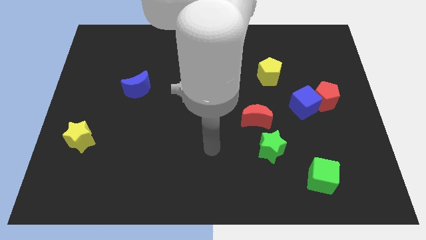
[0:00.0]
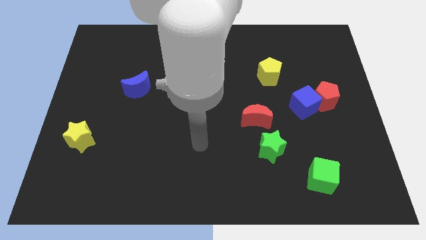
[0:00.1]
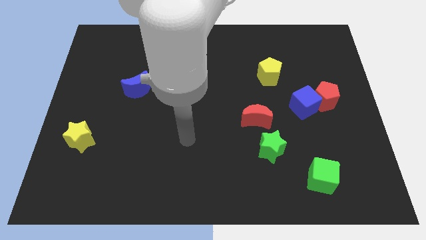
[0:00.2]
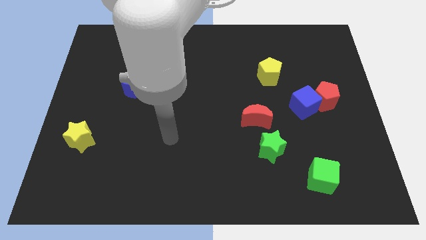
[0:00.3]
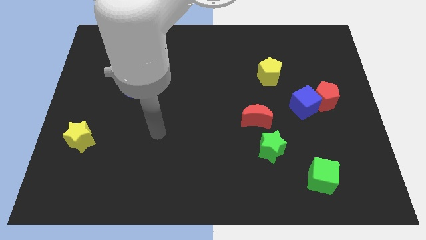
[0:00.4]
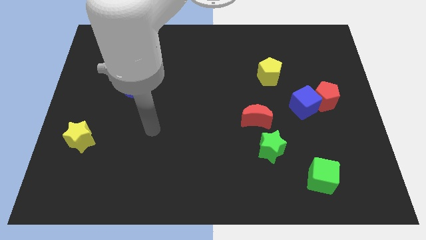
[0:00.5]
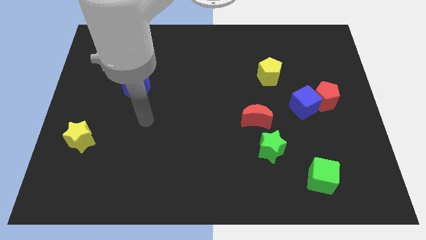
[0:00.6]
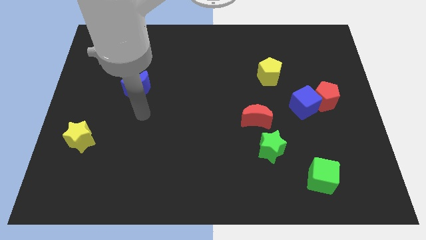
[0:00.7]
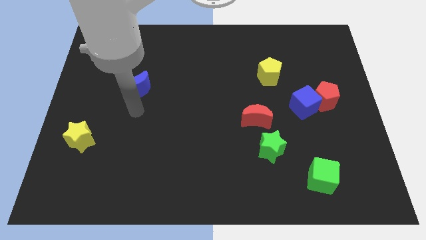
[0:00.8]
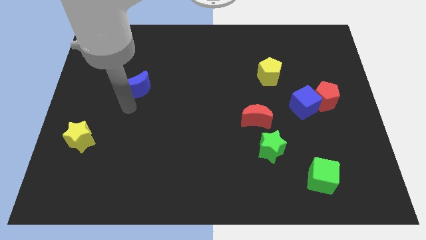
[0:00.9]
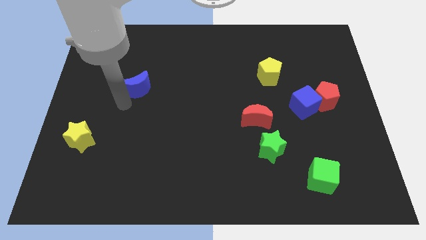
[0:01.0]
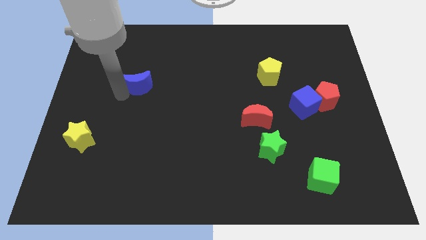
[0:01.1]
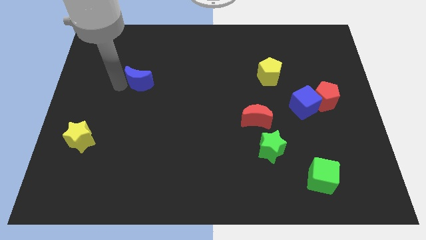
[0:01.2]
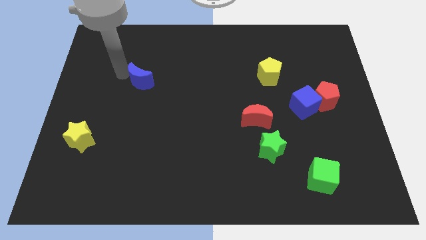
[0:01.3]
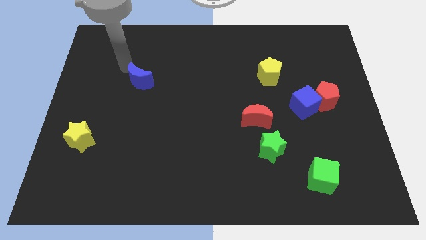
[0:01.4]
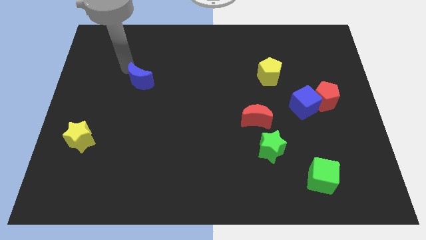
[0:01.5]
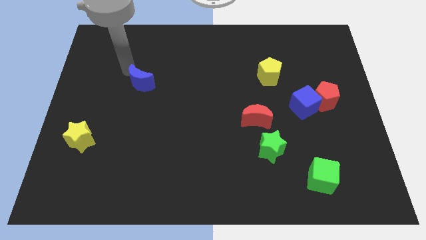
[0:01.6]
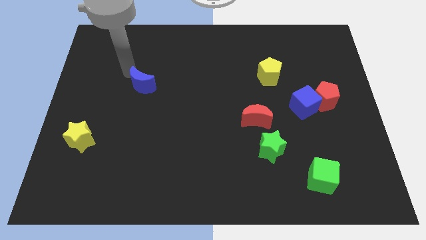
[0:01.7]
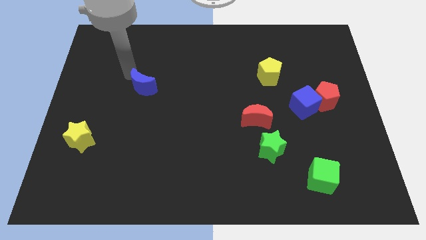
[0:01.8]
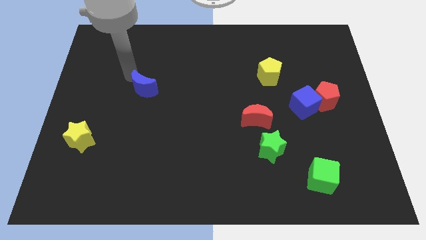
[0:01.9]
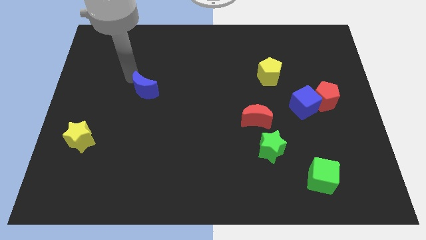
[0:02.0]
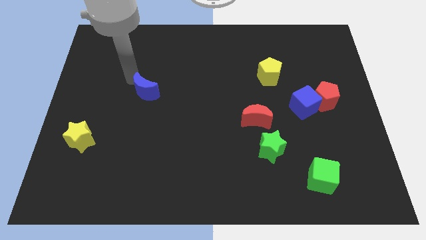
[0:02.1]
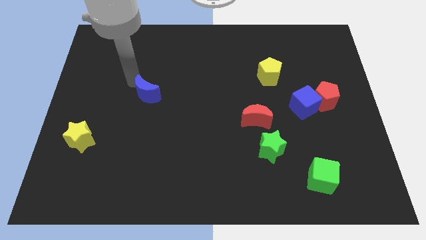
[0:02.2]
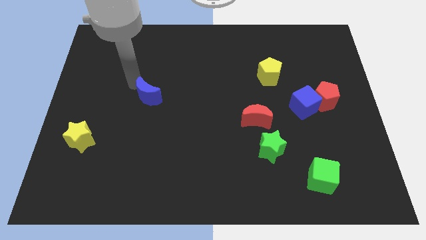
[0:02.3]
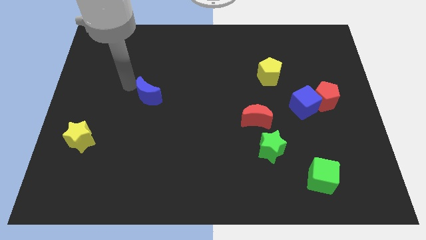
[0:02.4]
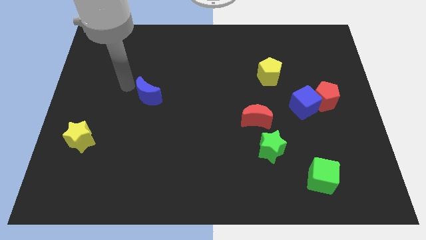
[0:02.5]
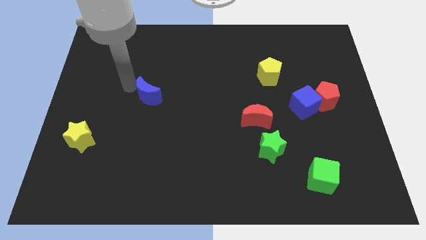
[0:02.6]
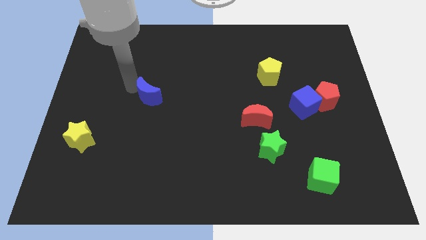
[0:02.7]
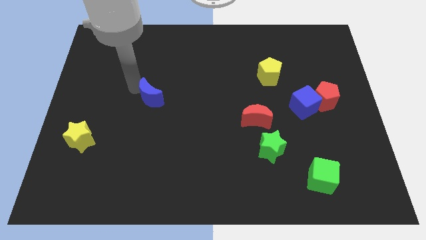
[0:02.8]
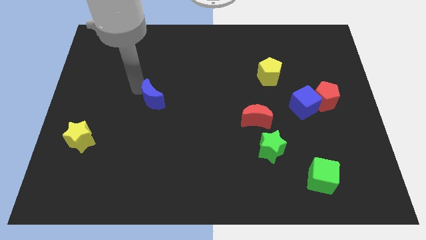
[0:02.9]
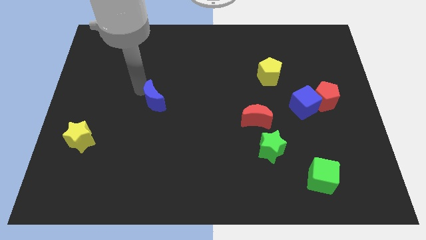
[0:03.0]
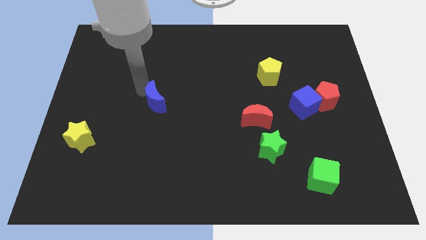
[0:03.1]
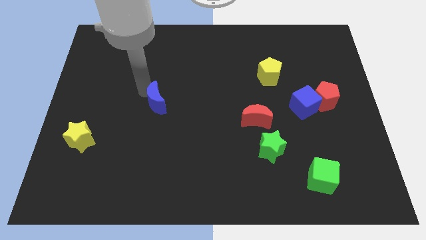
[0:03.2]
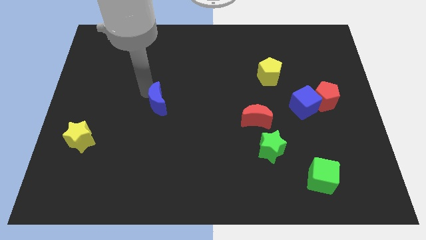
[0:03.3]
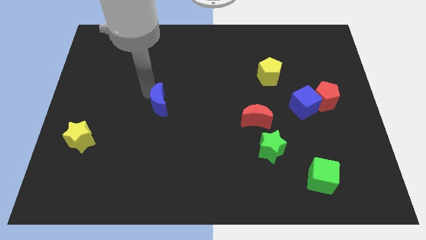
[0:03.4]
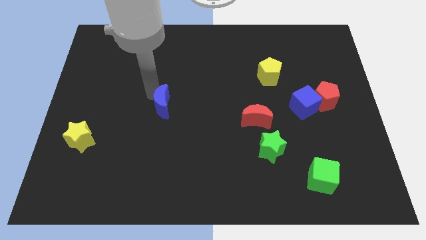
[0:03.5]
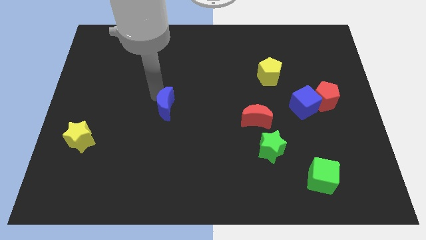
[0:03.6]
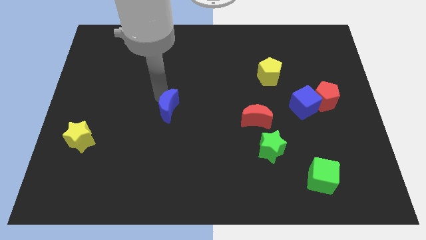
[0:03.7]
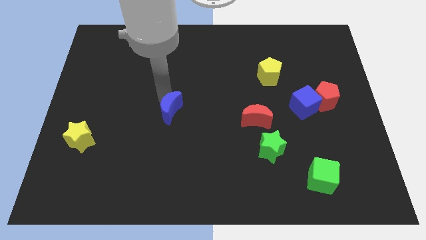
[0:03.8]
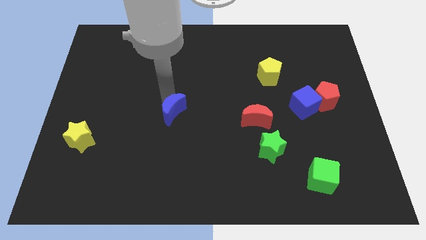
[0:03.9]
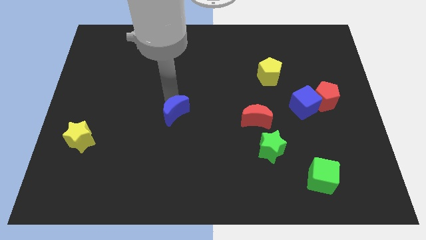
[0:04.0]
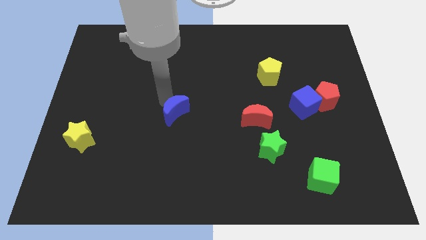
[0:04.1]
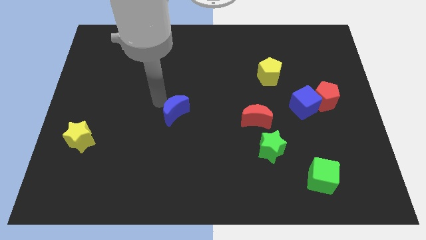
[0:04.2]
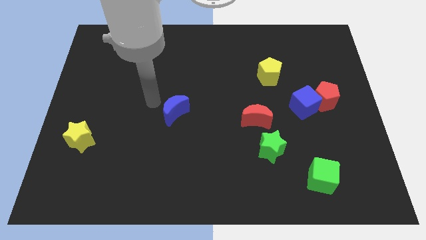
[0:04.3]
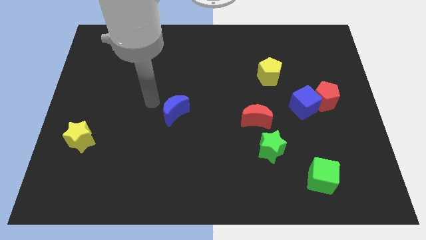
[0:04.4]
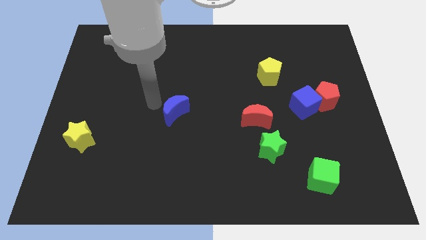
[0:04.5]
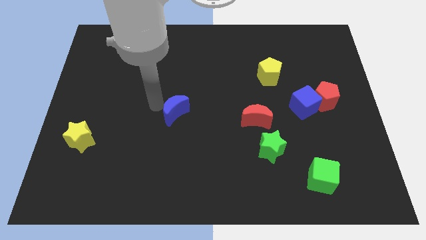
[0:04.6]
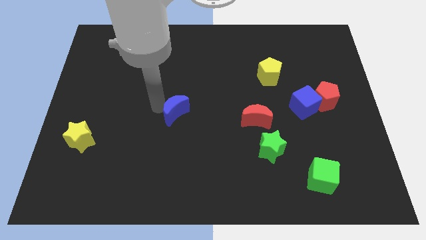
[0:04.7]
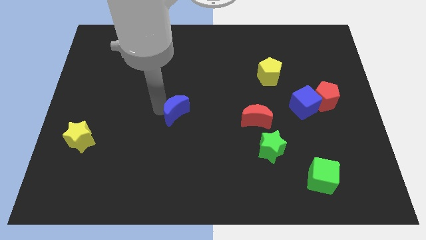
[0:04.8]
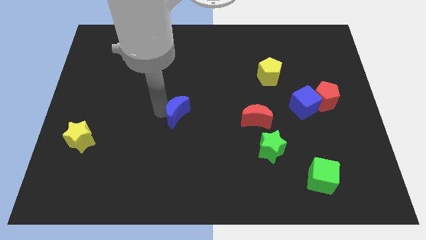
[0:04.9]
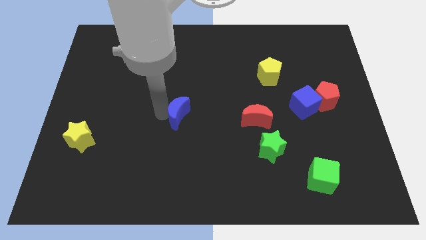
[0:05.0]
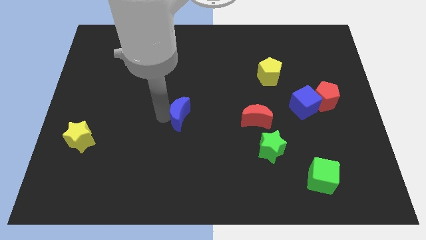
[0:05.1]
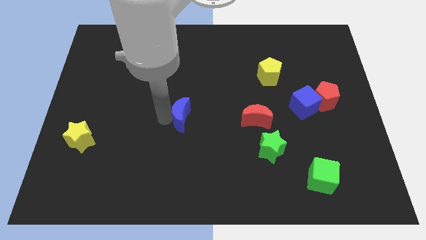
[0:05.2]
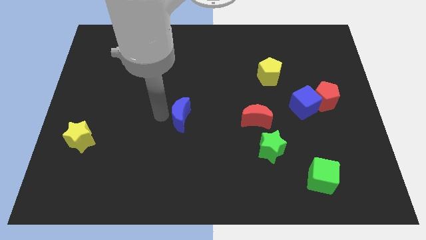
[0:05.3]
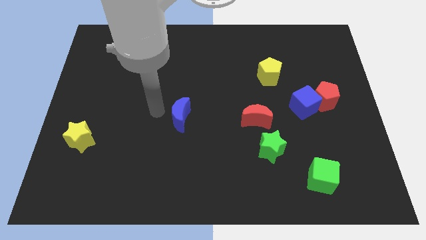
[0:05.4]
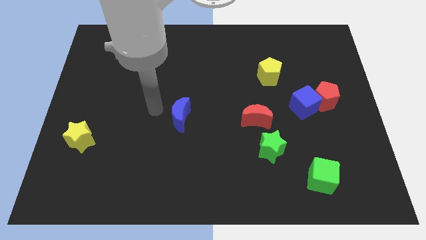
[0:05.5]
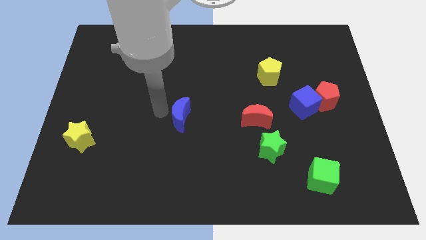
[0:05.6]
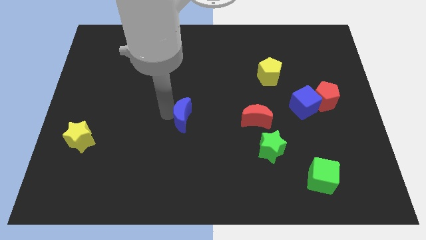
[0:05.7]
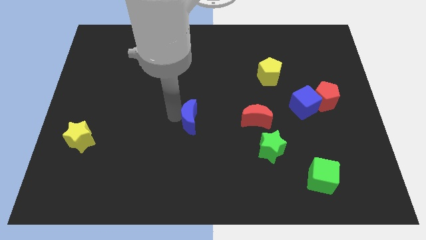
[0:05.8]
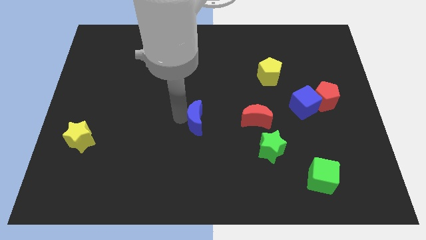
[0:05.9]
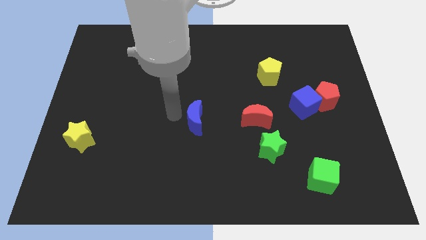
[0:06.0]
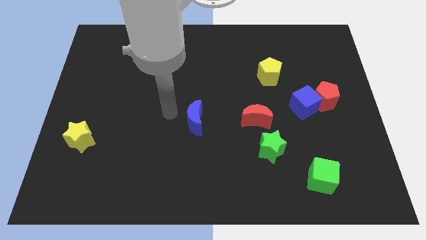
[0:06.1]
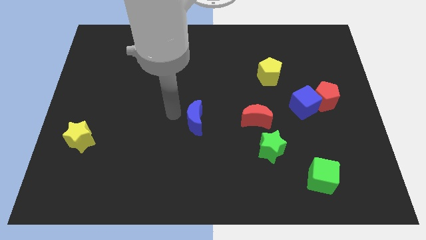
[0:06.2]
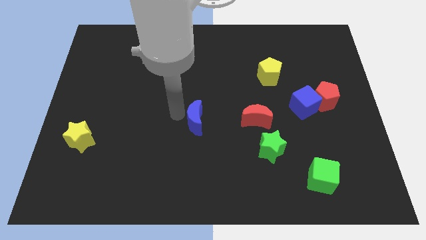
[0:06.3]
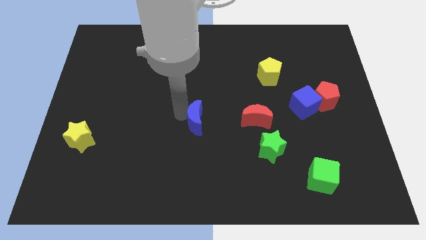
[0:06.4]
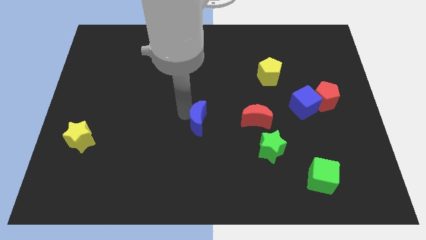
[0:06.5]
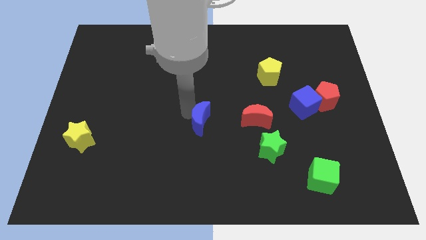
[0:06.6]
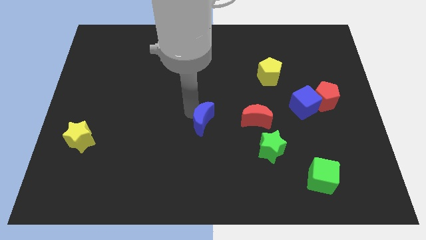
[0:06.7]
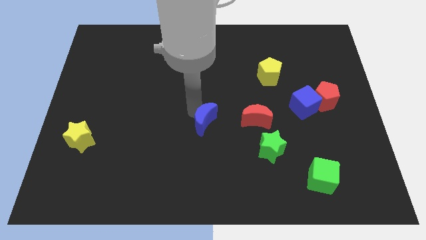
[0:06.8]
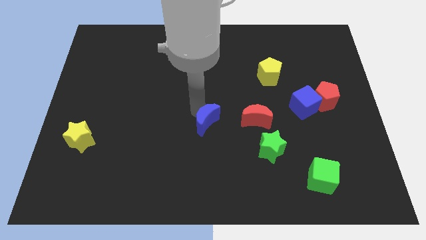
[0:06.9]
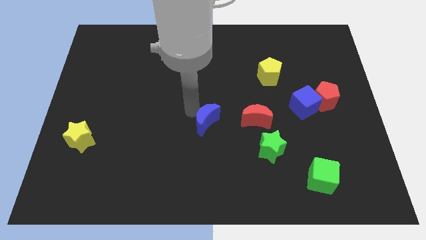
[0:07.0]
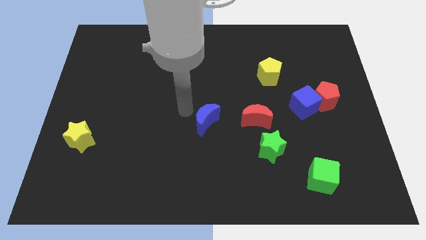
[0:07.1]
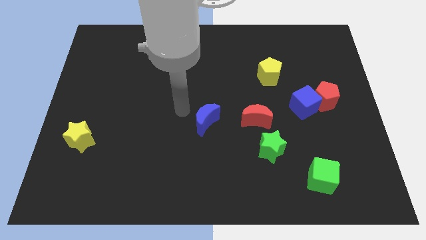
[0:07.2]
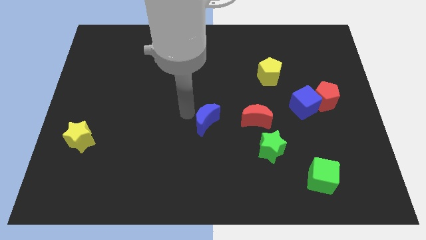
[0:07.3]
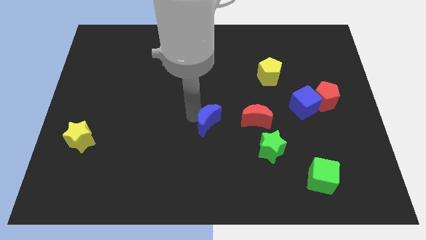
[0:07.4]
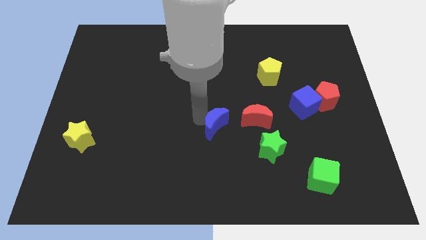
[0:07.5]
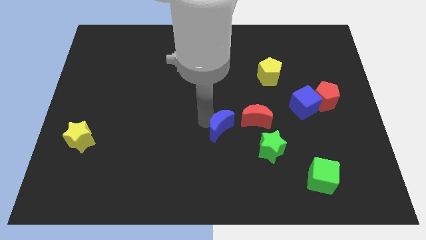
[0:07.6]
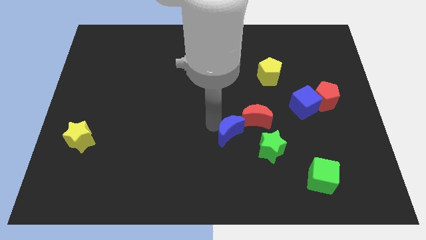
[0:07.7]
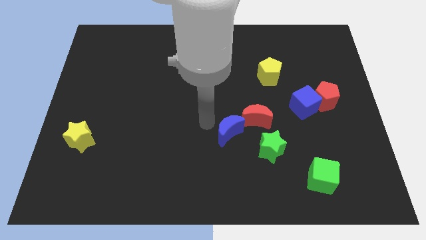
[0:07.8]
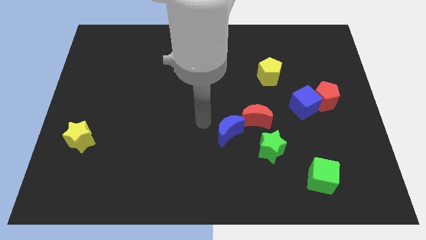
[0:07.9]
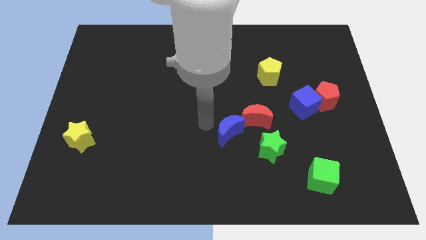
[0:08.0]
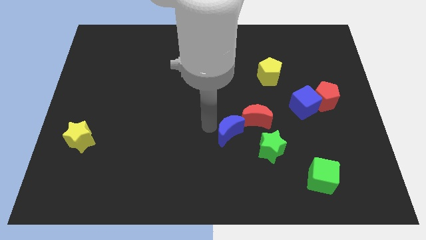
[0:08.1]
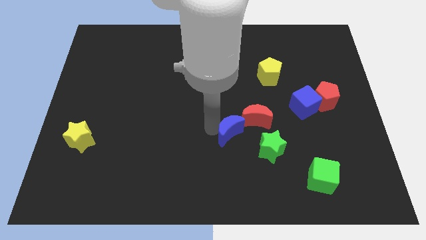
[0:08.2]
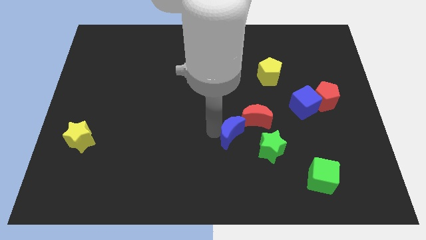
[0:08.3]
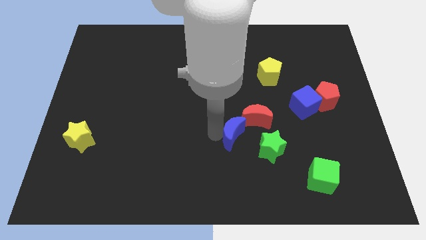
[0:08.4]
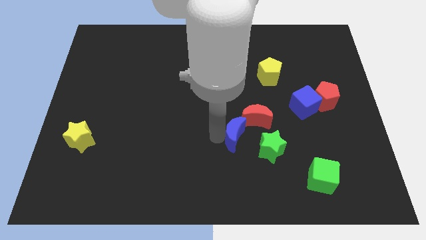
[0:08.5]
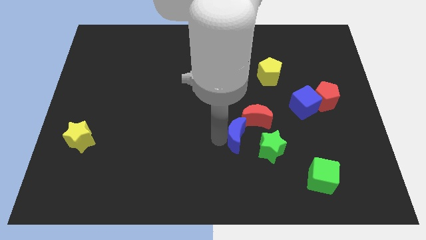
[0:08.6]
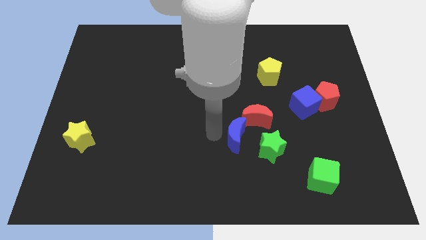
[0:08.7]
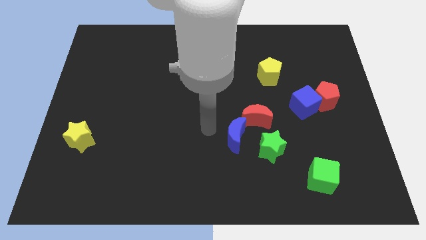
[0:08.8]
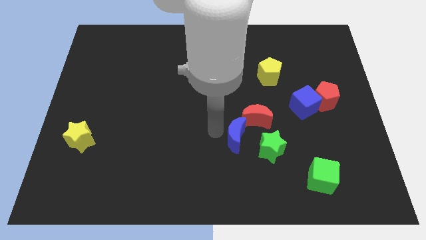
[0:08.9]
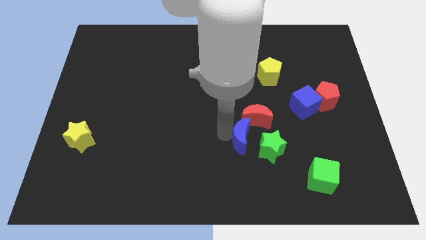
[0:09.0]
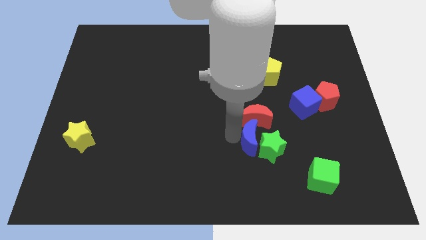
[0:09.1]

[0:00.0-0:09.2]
put the blue moon next to the green star
